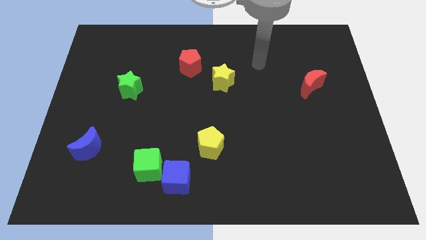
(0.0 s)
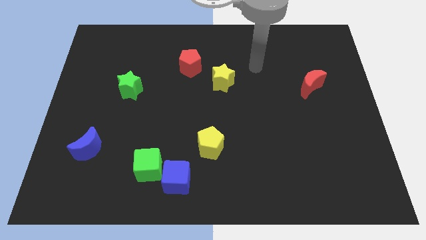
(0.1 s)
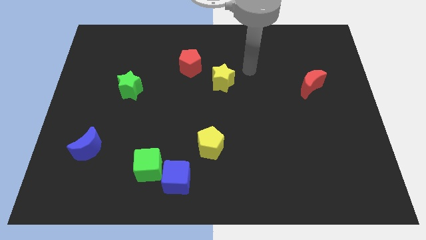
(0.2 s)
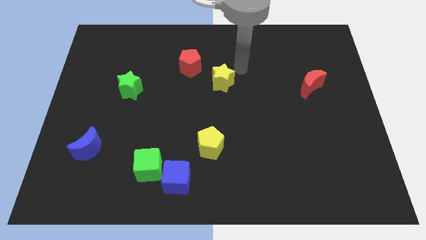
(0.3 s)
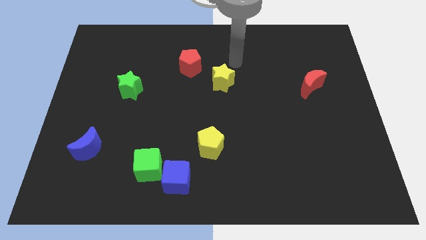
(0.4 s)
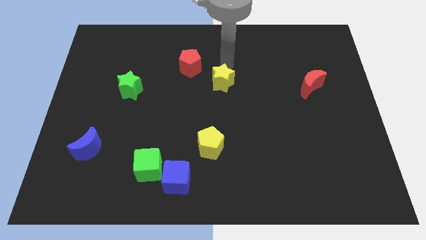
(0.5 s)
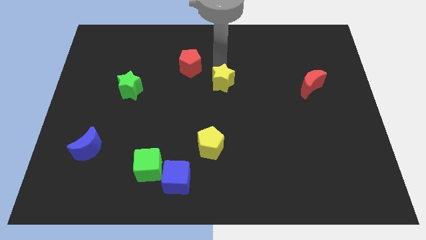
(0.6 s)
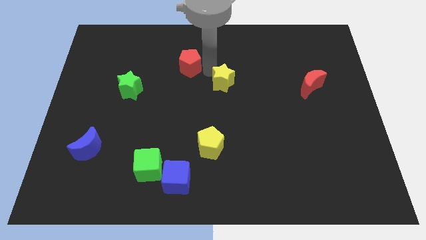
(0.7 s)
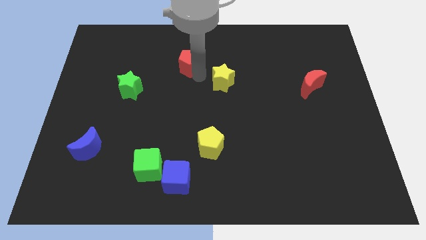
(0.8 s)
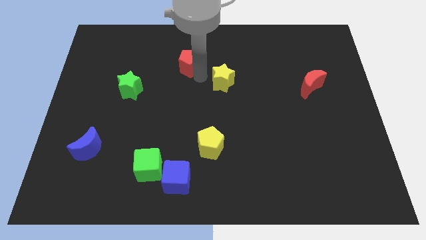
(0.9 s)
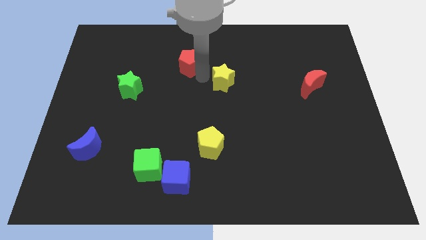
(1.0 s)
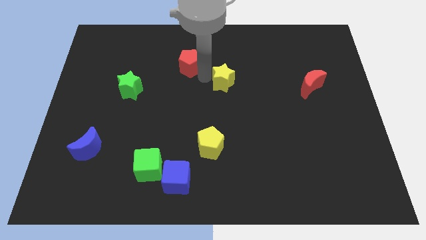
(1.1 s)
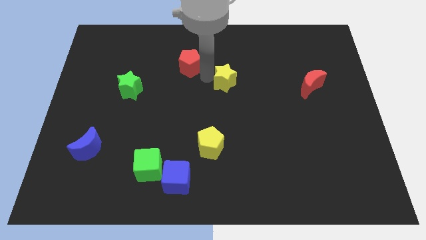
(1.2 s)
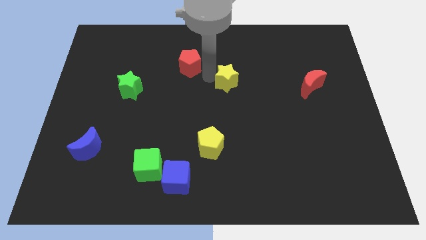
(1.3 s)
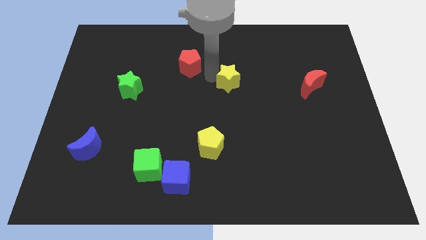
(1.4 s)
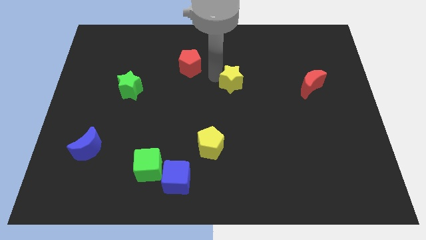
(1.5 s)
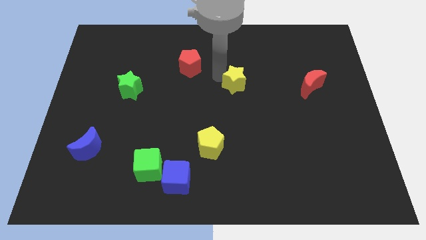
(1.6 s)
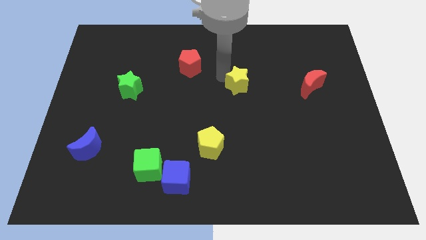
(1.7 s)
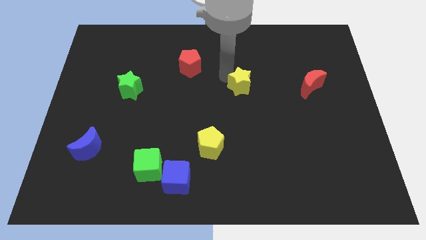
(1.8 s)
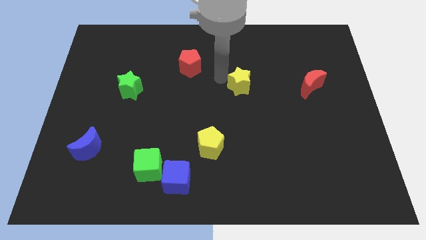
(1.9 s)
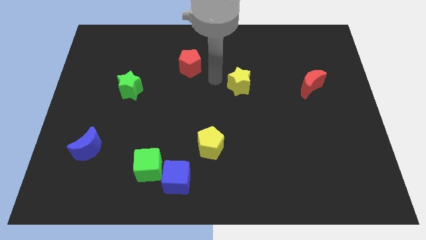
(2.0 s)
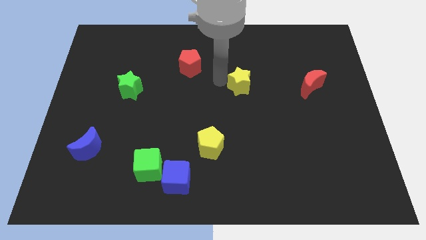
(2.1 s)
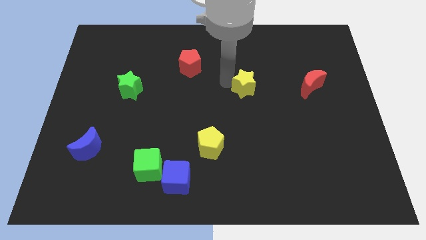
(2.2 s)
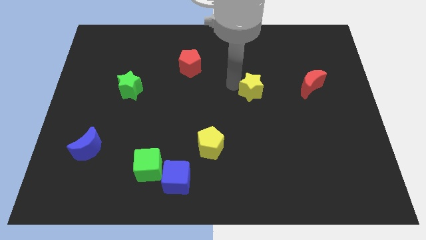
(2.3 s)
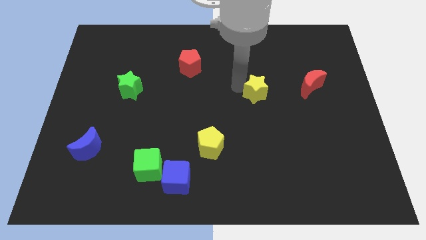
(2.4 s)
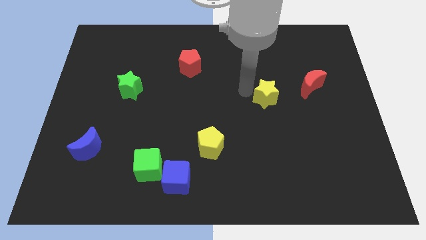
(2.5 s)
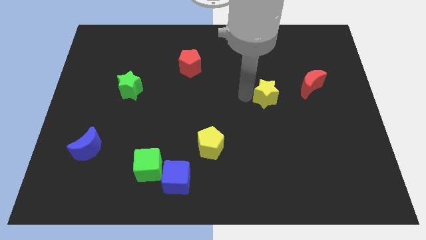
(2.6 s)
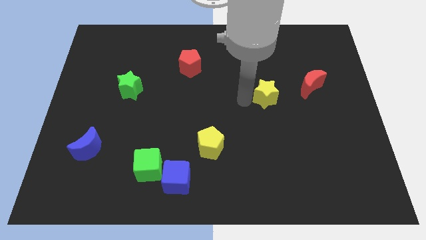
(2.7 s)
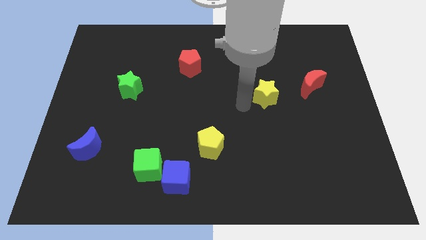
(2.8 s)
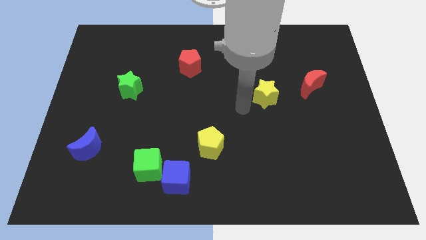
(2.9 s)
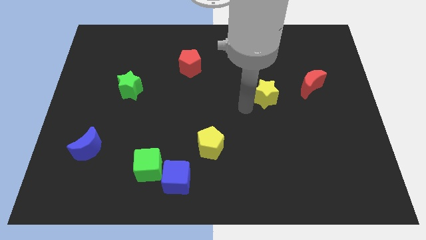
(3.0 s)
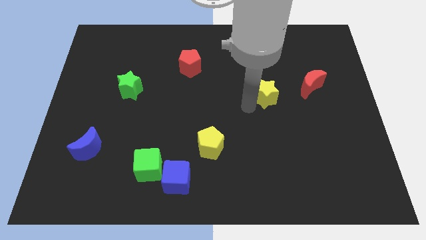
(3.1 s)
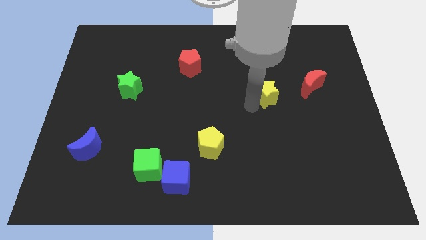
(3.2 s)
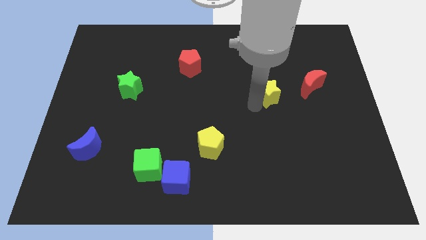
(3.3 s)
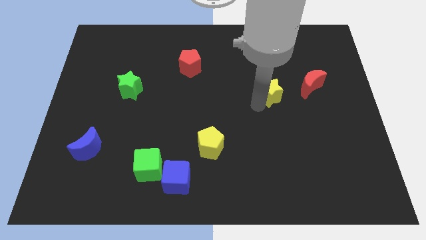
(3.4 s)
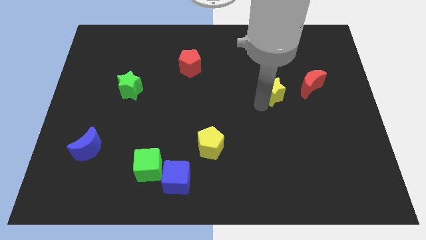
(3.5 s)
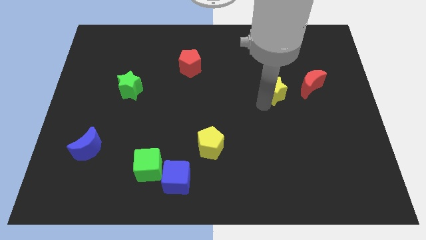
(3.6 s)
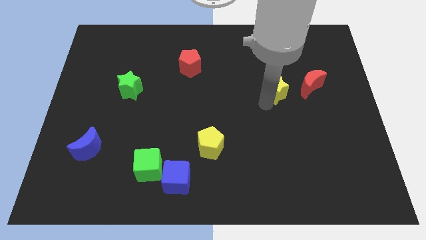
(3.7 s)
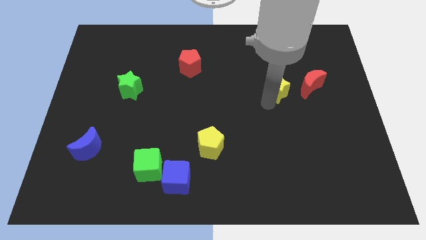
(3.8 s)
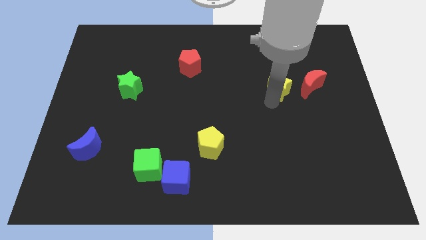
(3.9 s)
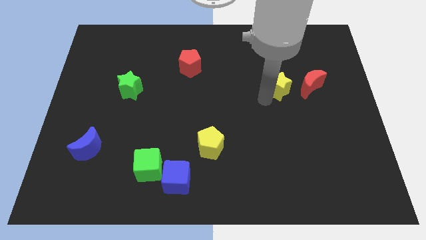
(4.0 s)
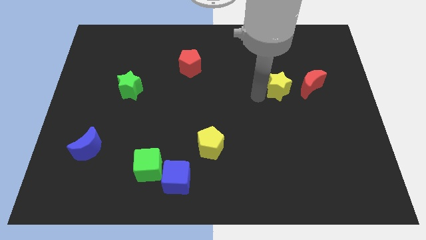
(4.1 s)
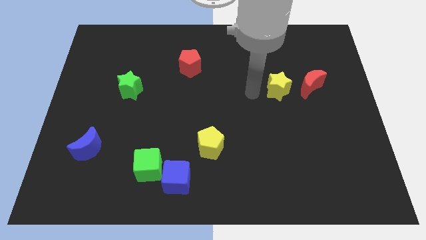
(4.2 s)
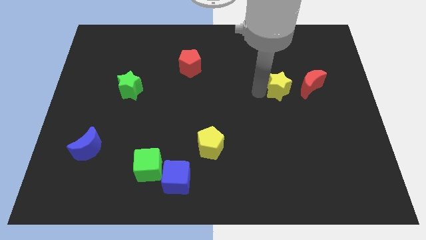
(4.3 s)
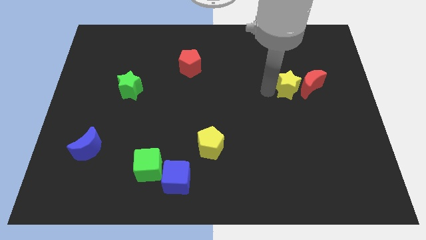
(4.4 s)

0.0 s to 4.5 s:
push the yellow star towards the red moon

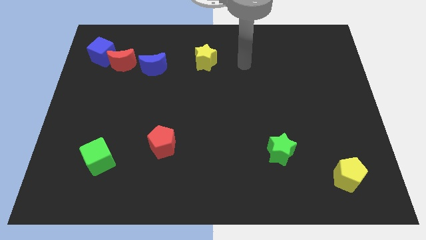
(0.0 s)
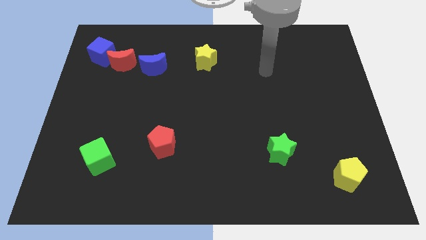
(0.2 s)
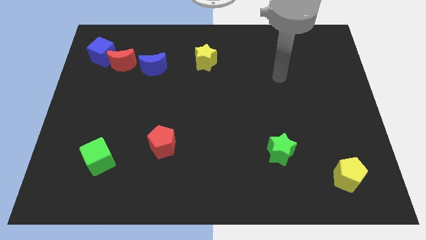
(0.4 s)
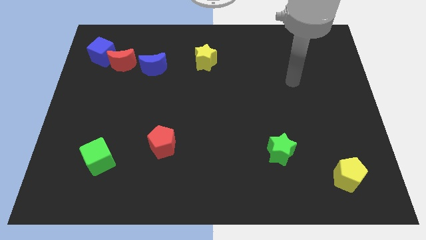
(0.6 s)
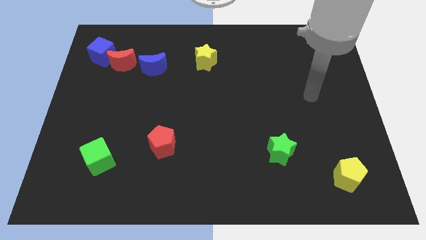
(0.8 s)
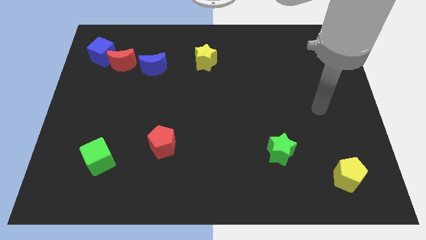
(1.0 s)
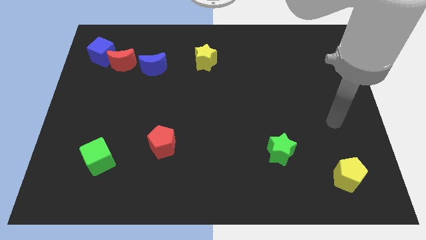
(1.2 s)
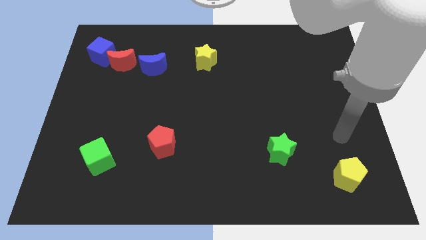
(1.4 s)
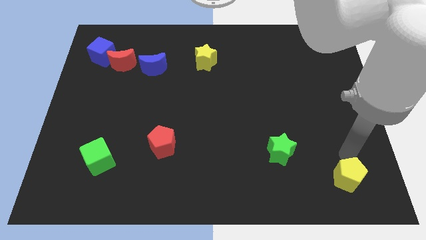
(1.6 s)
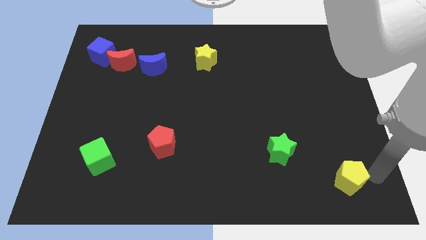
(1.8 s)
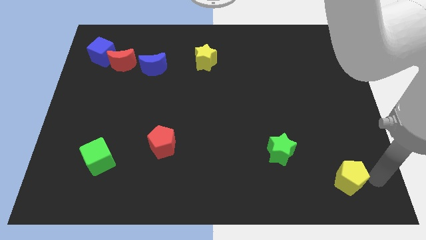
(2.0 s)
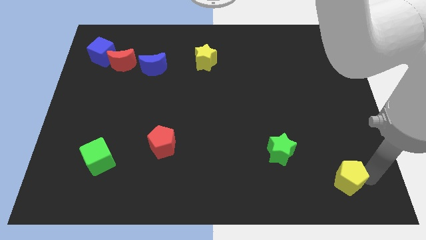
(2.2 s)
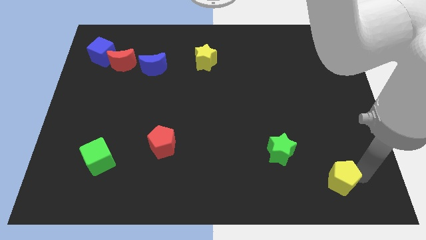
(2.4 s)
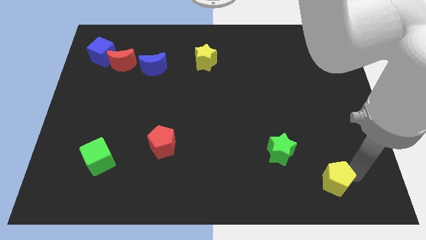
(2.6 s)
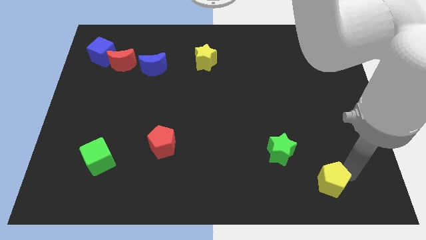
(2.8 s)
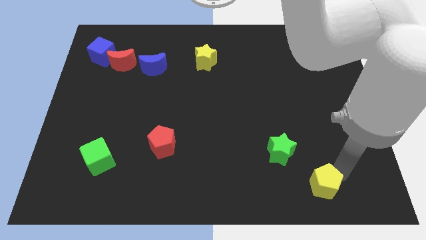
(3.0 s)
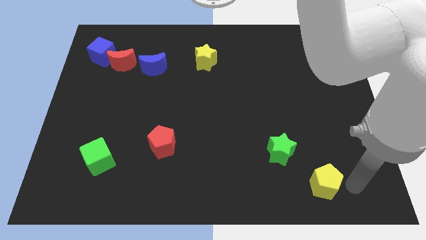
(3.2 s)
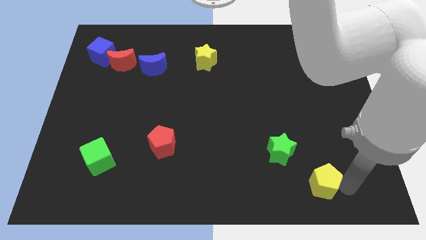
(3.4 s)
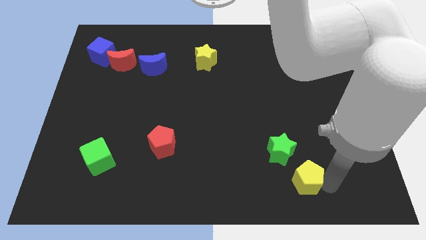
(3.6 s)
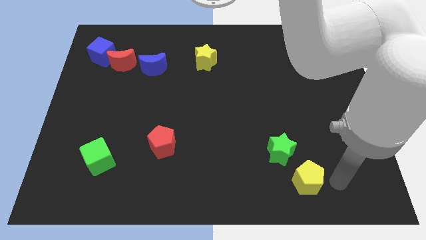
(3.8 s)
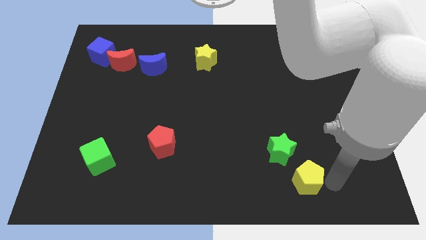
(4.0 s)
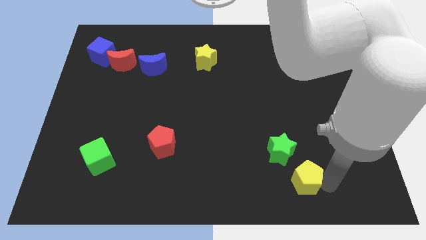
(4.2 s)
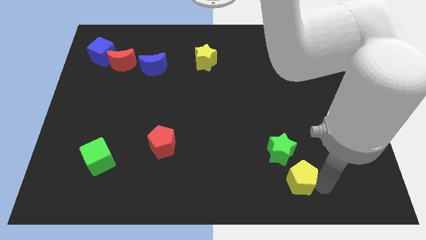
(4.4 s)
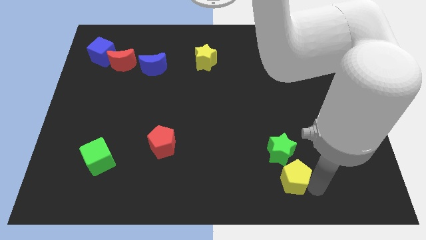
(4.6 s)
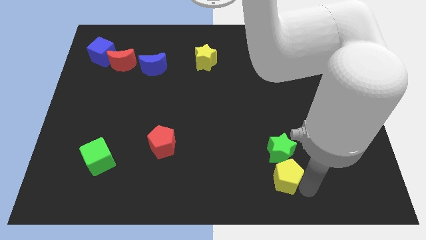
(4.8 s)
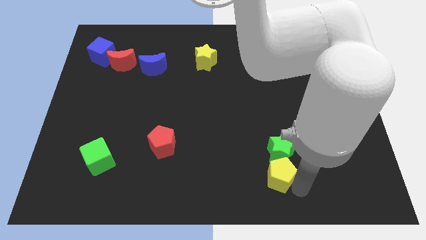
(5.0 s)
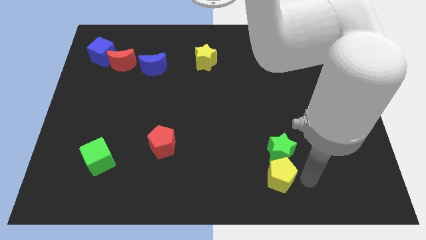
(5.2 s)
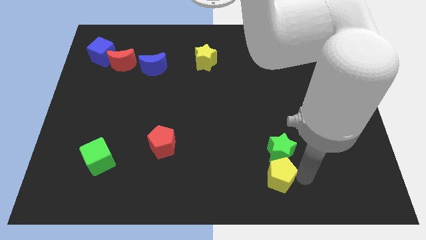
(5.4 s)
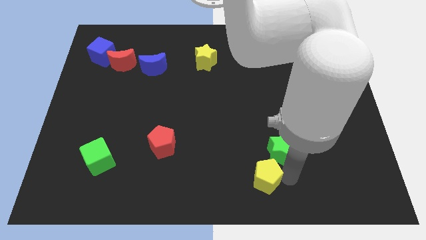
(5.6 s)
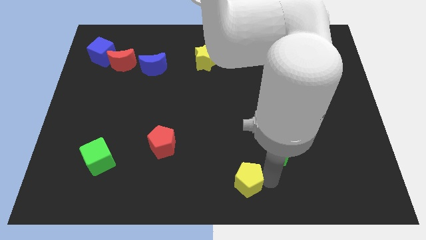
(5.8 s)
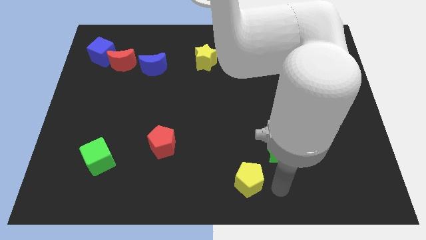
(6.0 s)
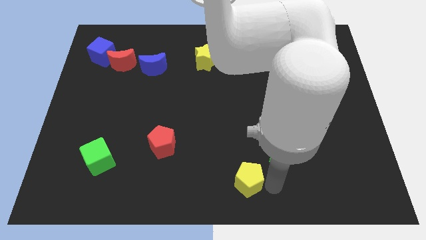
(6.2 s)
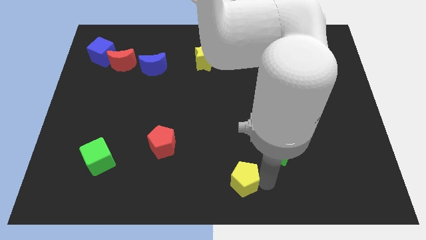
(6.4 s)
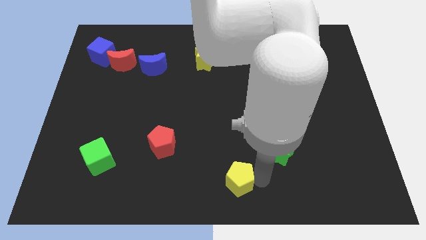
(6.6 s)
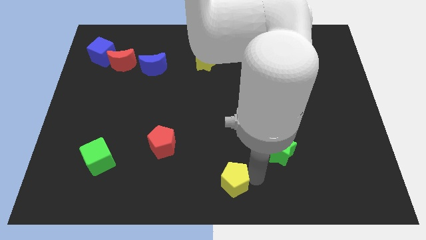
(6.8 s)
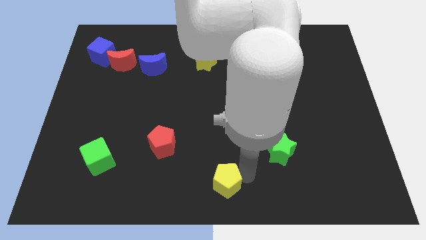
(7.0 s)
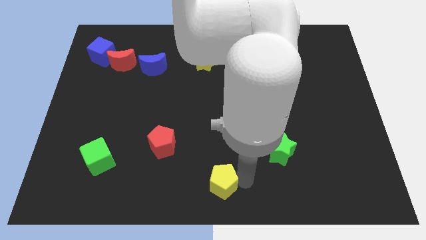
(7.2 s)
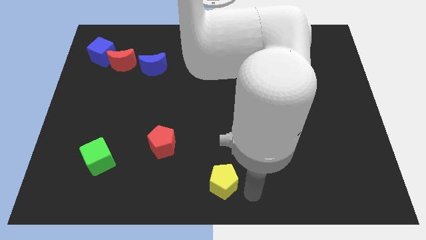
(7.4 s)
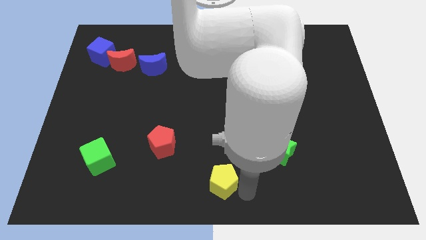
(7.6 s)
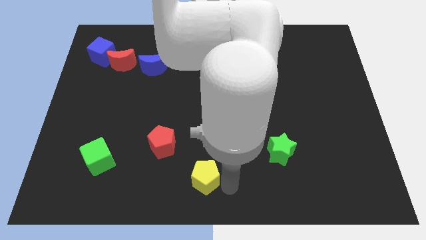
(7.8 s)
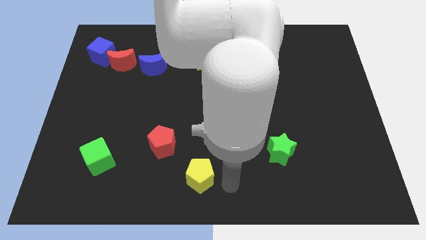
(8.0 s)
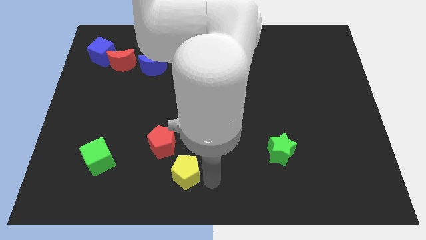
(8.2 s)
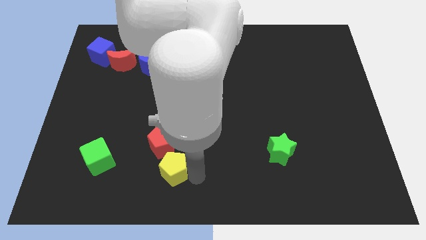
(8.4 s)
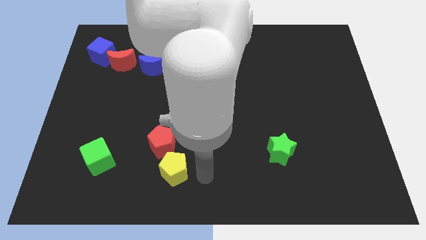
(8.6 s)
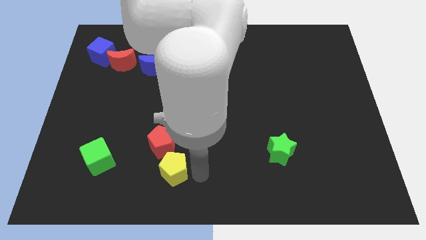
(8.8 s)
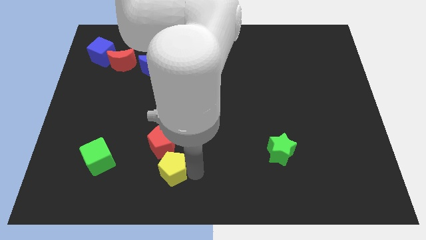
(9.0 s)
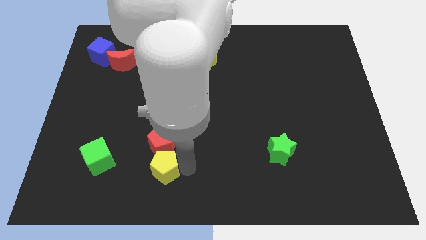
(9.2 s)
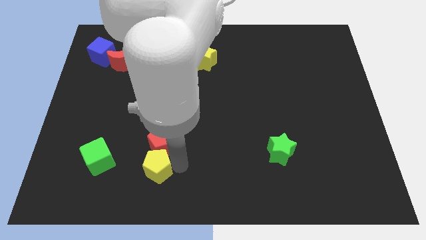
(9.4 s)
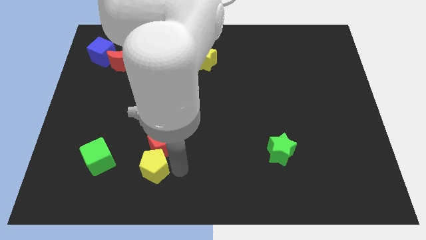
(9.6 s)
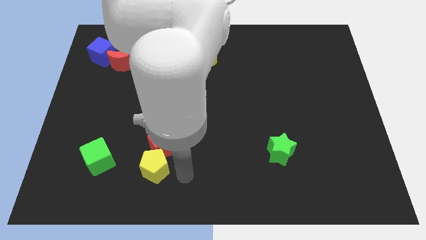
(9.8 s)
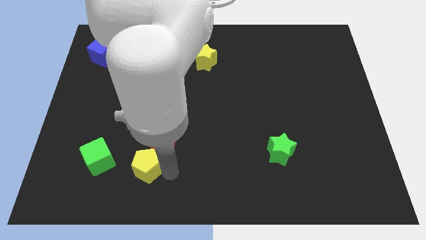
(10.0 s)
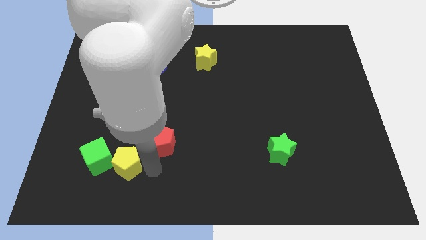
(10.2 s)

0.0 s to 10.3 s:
push the yellow pentagon to the green cube
